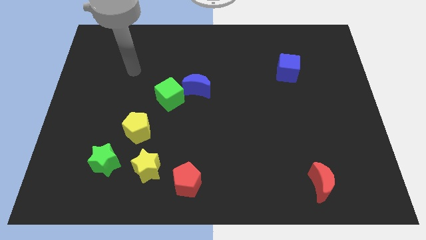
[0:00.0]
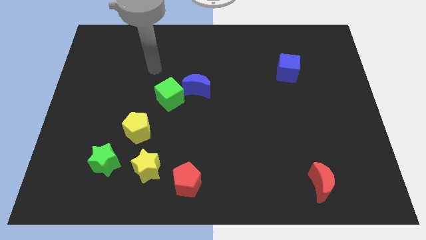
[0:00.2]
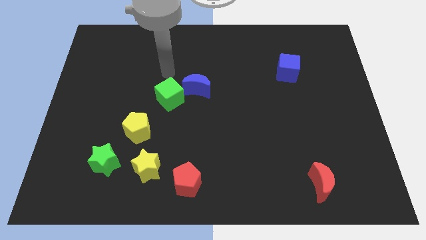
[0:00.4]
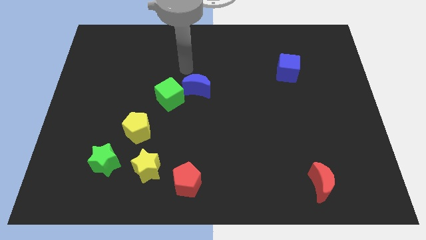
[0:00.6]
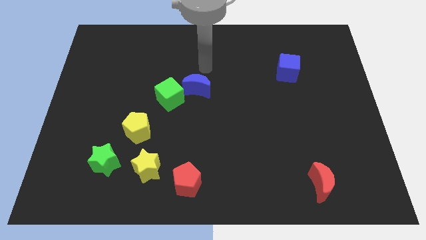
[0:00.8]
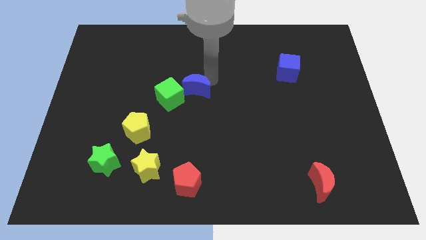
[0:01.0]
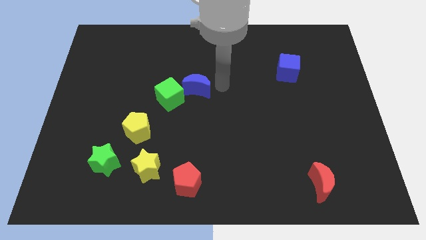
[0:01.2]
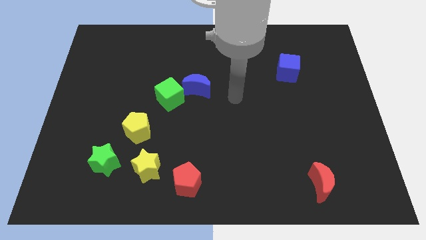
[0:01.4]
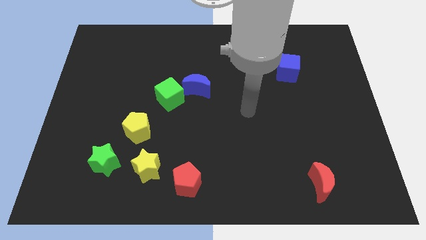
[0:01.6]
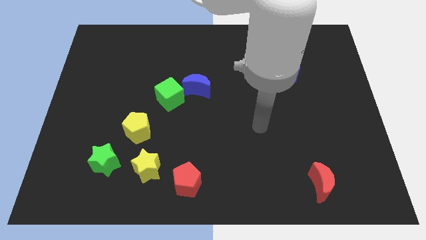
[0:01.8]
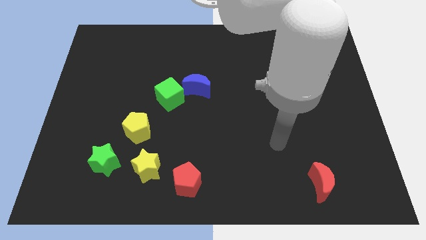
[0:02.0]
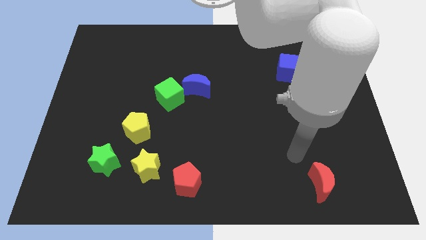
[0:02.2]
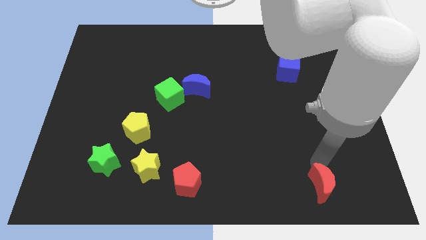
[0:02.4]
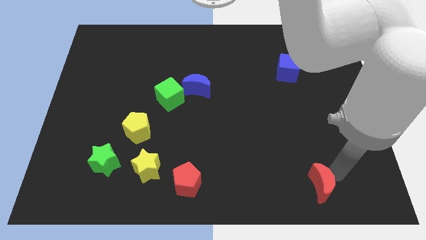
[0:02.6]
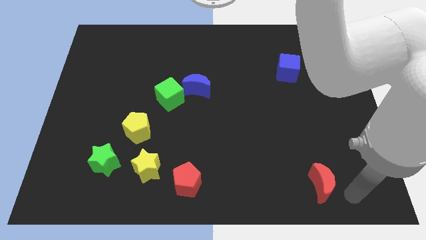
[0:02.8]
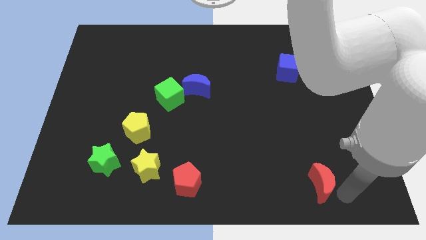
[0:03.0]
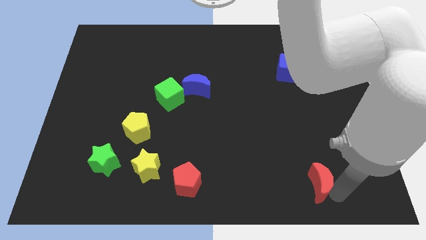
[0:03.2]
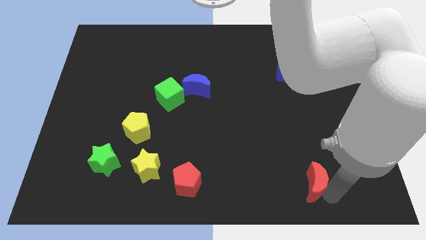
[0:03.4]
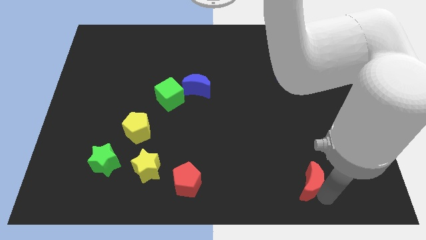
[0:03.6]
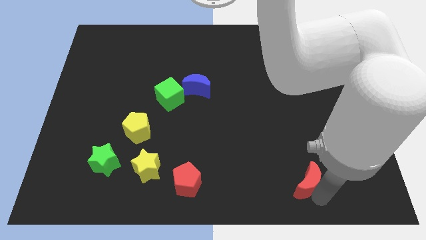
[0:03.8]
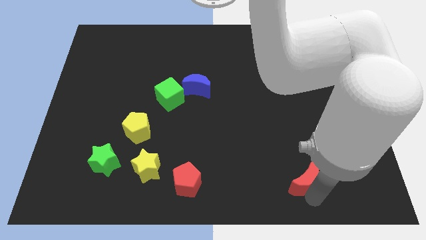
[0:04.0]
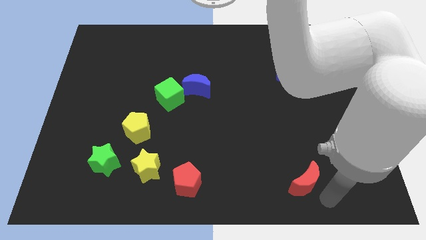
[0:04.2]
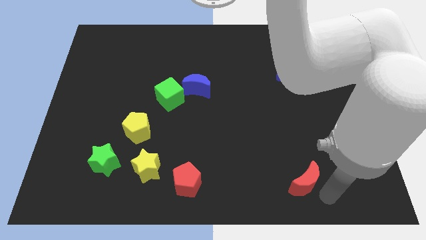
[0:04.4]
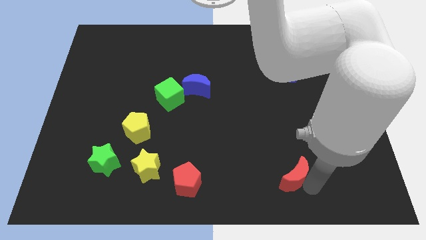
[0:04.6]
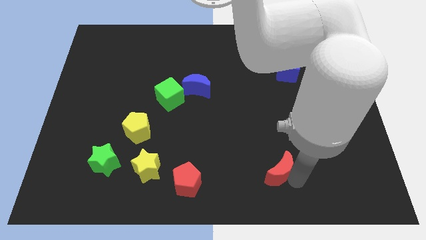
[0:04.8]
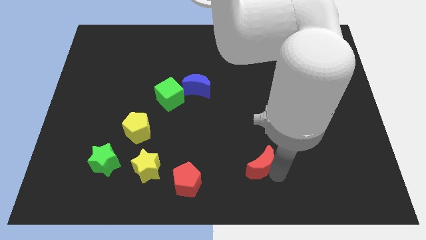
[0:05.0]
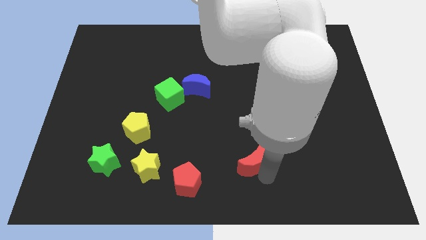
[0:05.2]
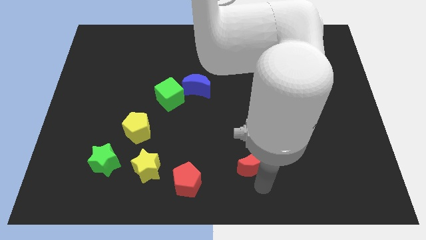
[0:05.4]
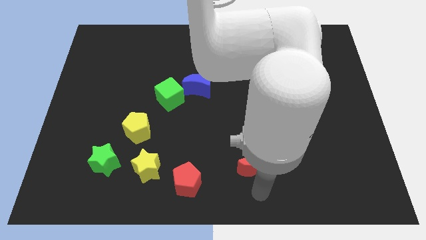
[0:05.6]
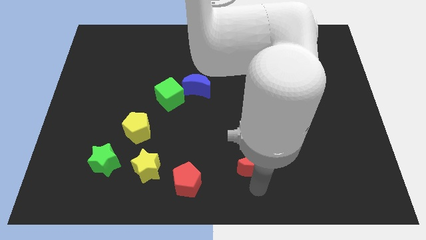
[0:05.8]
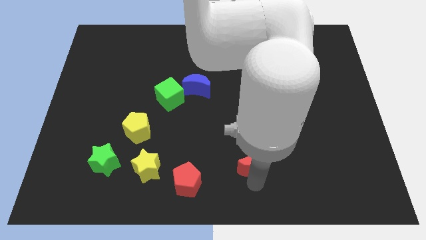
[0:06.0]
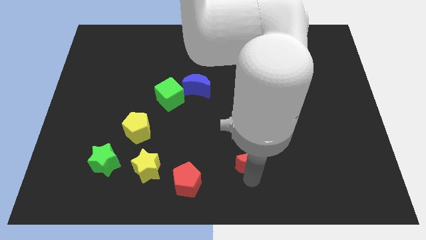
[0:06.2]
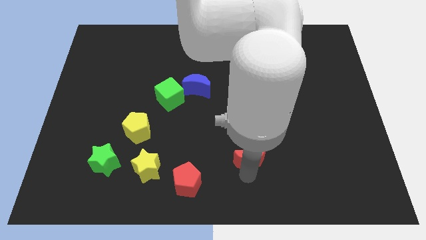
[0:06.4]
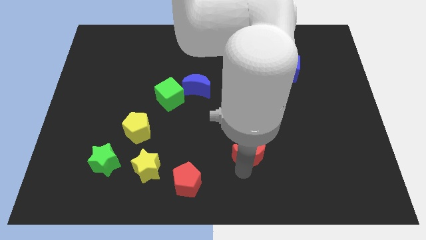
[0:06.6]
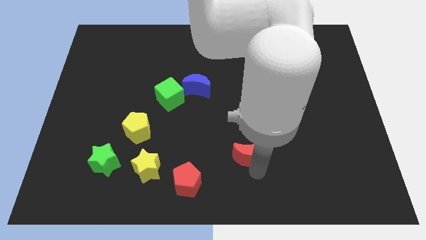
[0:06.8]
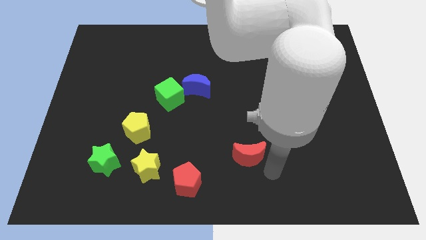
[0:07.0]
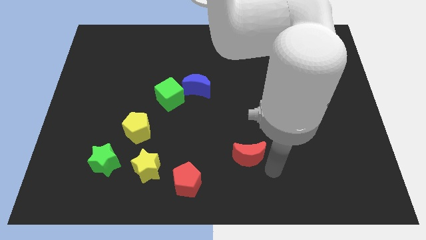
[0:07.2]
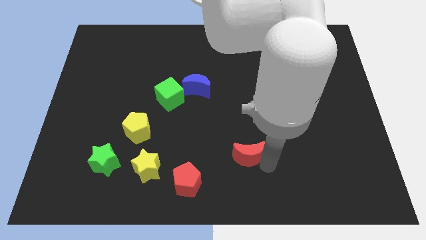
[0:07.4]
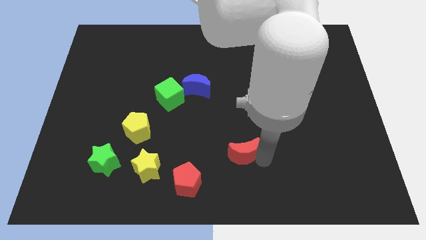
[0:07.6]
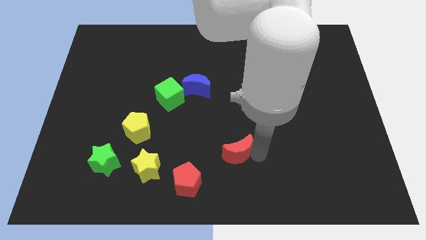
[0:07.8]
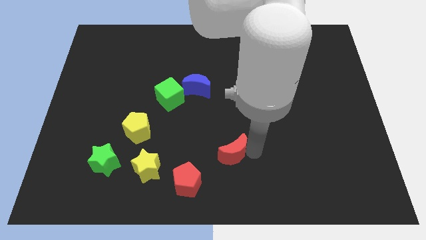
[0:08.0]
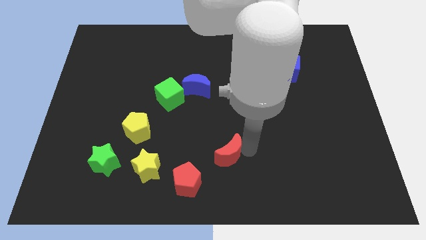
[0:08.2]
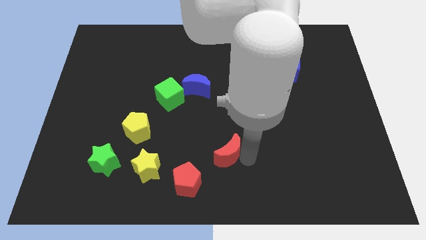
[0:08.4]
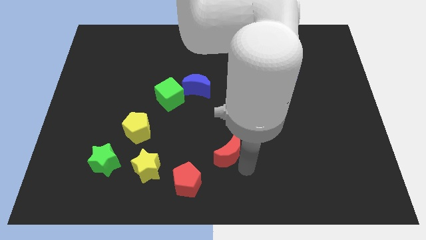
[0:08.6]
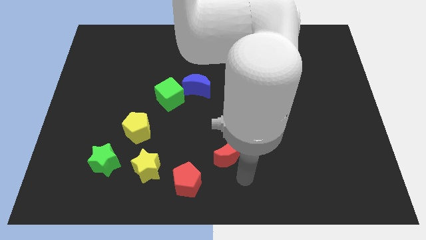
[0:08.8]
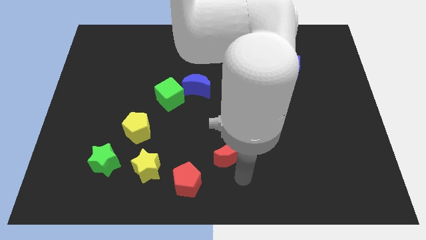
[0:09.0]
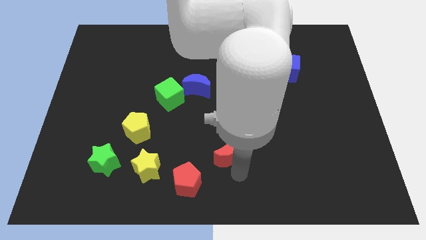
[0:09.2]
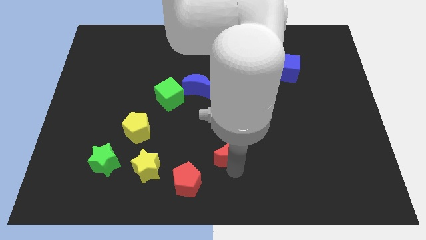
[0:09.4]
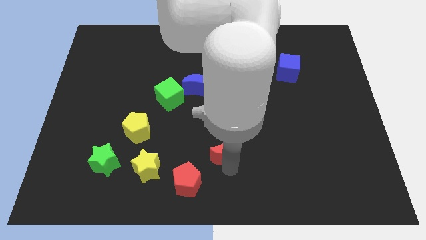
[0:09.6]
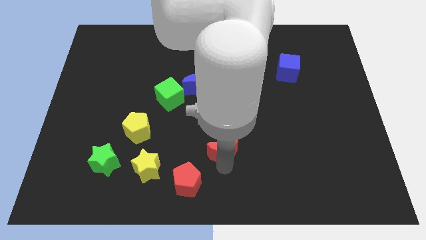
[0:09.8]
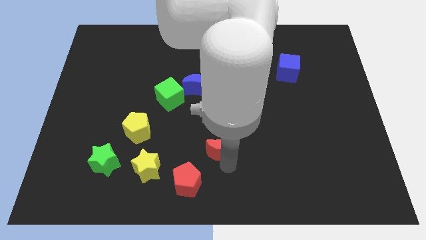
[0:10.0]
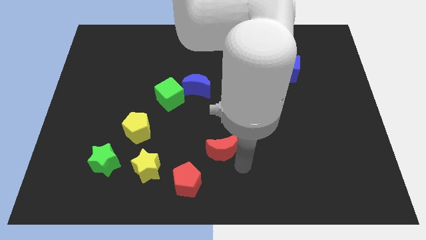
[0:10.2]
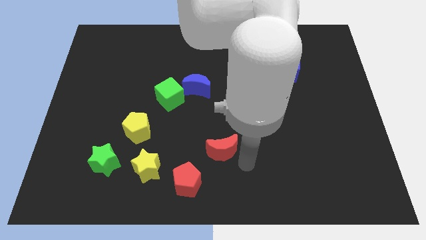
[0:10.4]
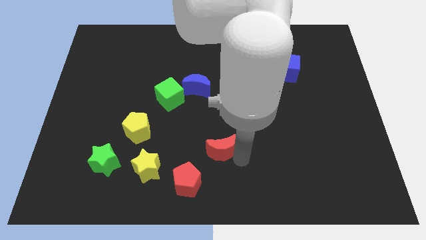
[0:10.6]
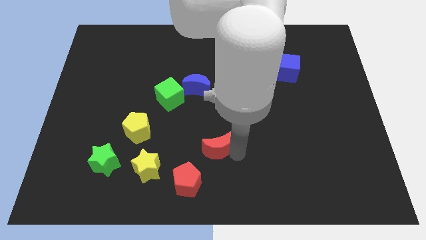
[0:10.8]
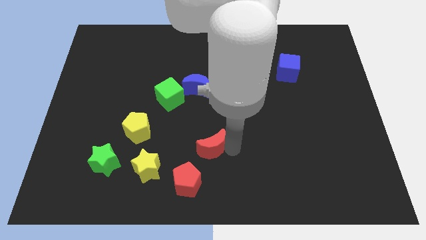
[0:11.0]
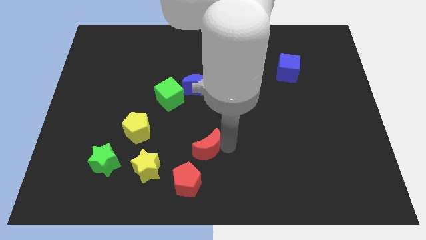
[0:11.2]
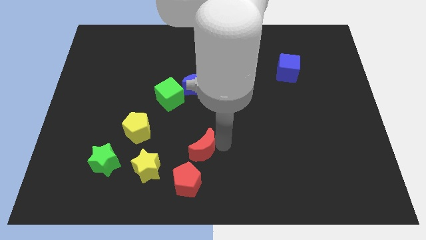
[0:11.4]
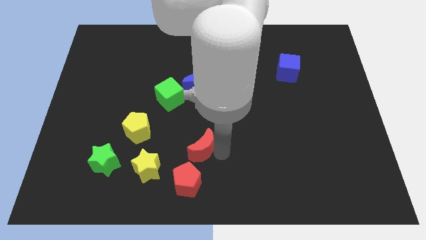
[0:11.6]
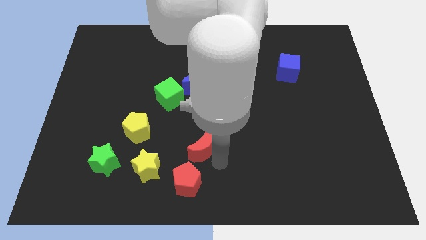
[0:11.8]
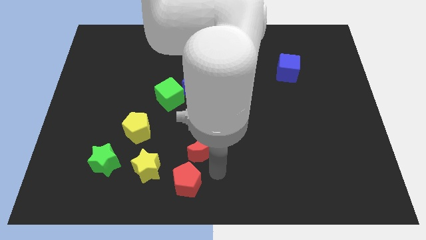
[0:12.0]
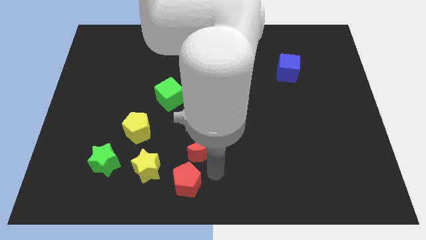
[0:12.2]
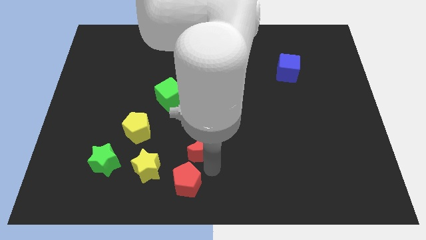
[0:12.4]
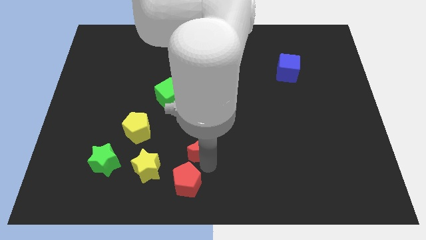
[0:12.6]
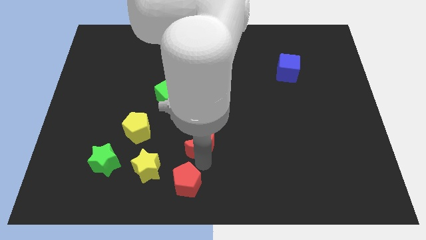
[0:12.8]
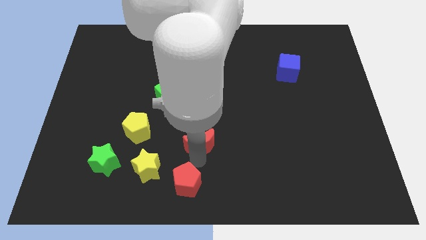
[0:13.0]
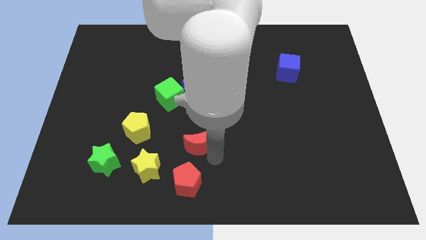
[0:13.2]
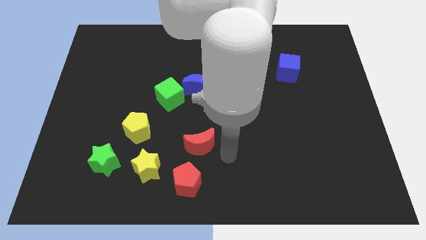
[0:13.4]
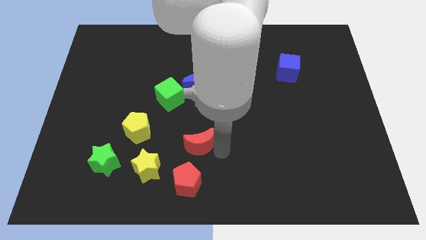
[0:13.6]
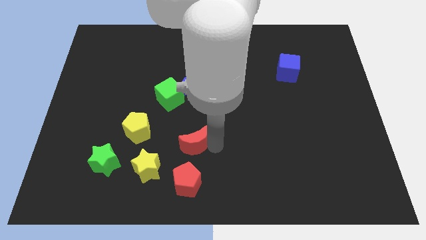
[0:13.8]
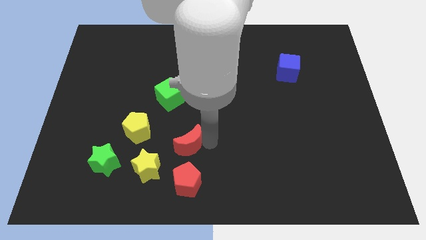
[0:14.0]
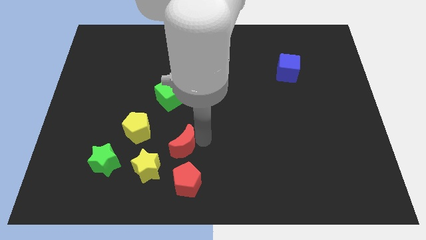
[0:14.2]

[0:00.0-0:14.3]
slide the red moon to the bottom of the green cube

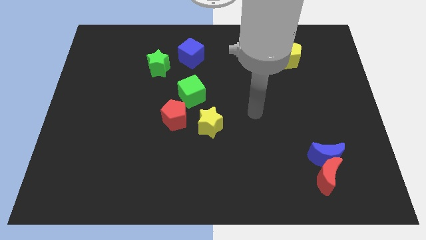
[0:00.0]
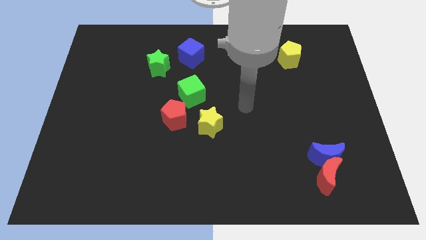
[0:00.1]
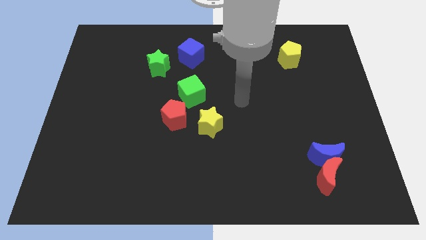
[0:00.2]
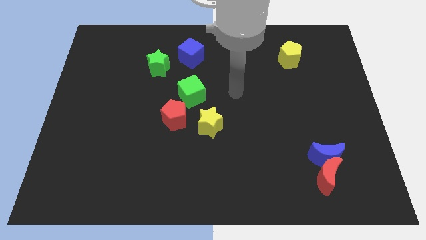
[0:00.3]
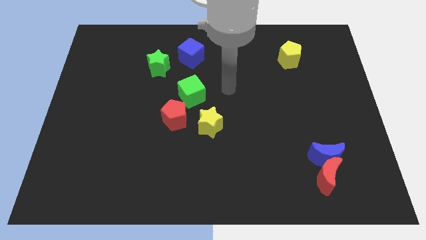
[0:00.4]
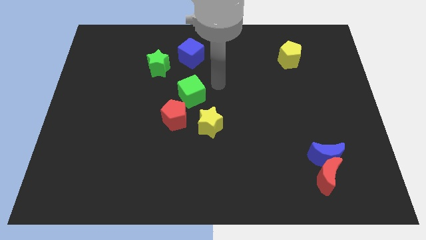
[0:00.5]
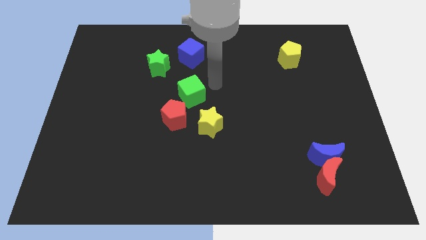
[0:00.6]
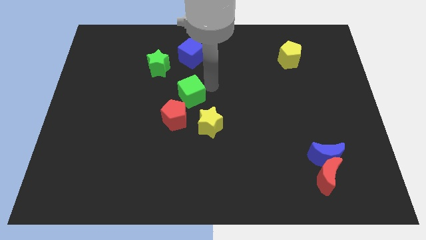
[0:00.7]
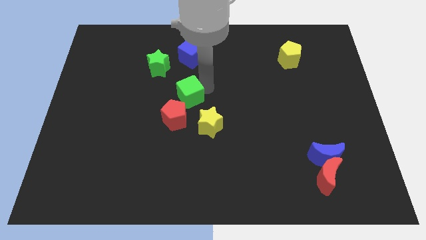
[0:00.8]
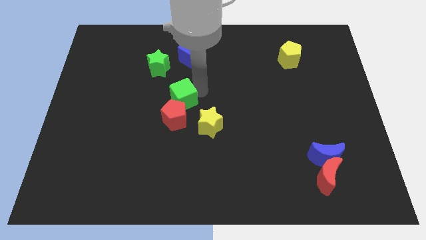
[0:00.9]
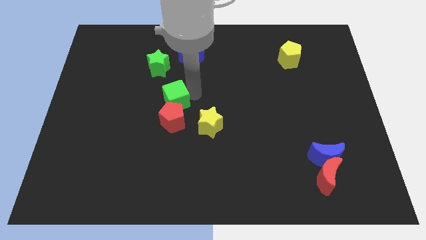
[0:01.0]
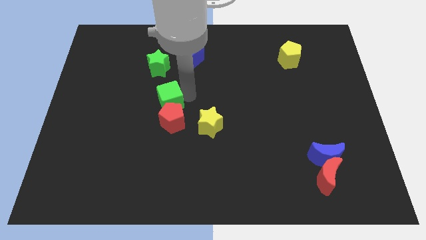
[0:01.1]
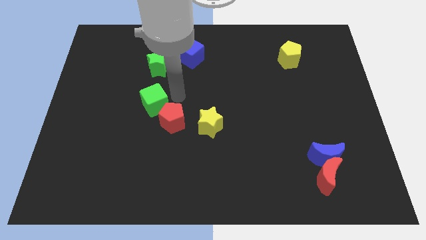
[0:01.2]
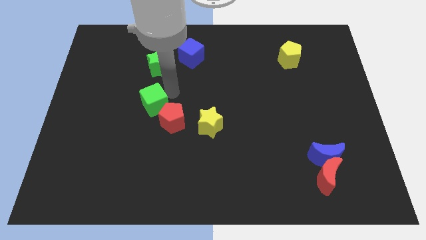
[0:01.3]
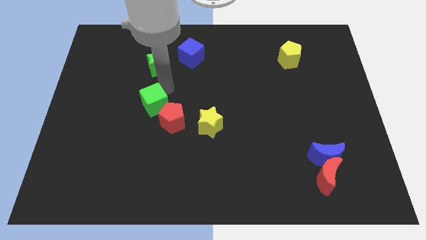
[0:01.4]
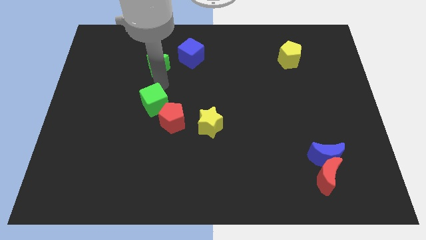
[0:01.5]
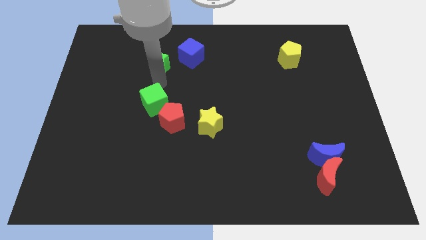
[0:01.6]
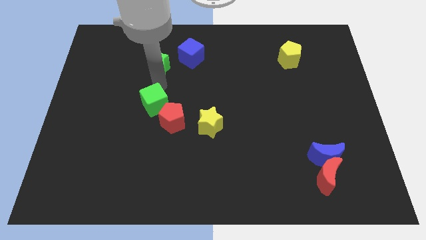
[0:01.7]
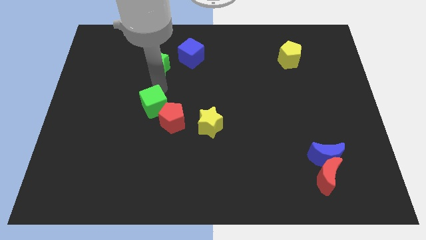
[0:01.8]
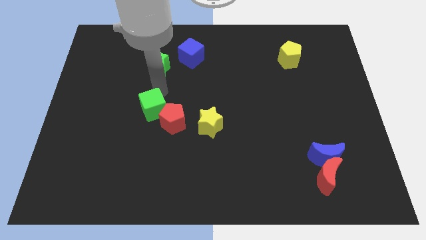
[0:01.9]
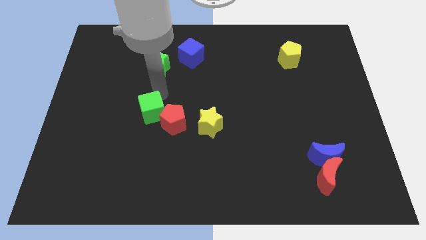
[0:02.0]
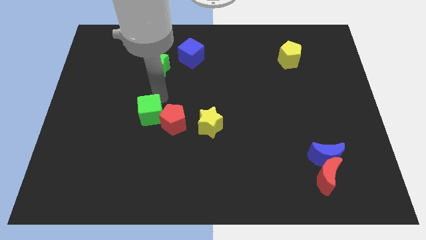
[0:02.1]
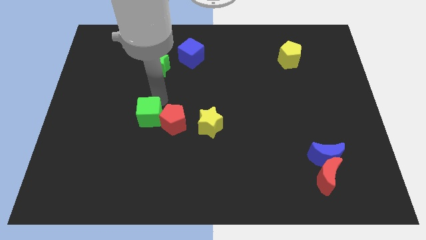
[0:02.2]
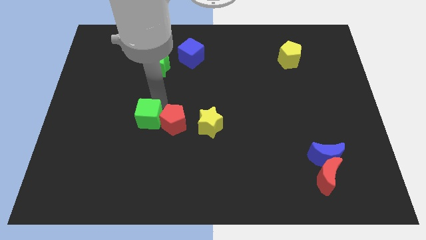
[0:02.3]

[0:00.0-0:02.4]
push the green cube to the bottom left of the red pentagon
